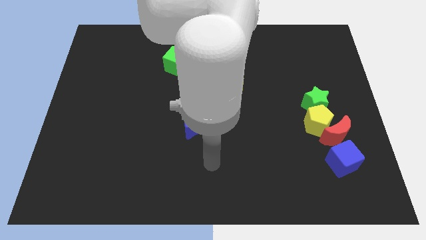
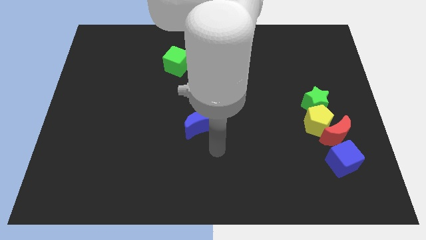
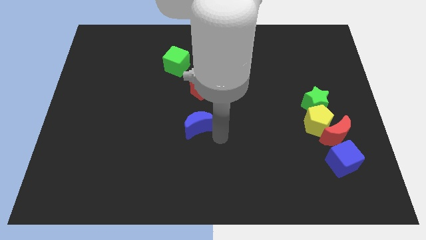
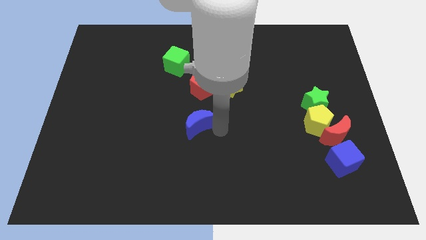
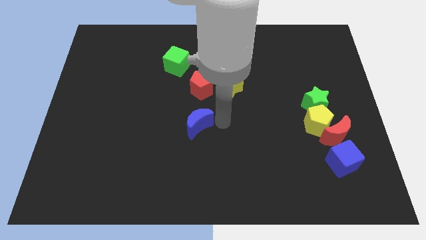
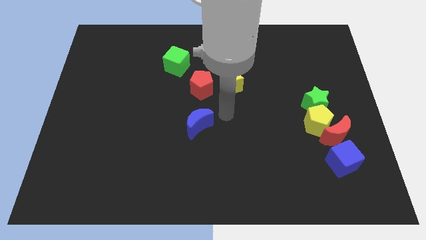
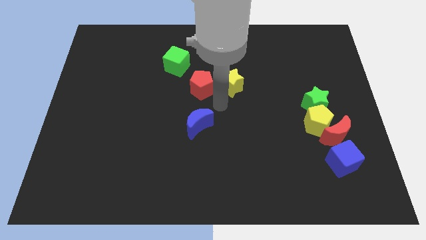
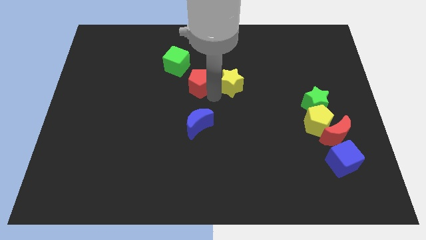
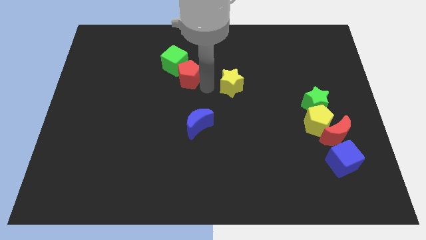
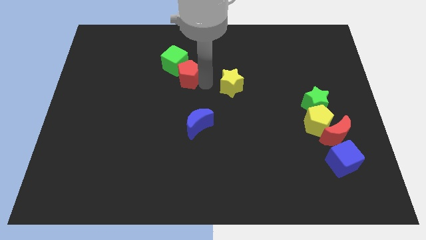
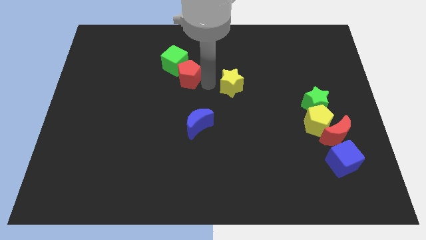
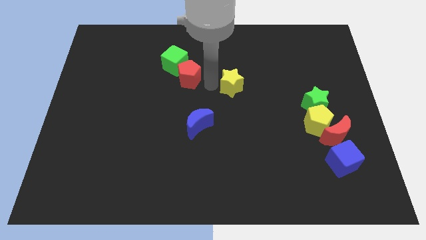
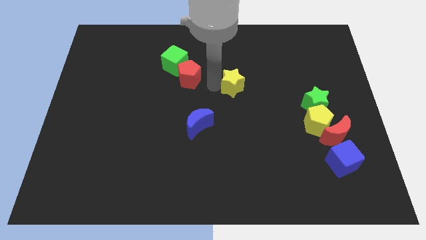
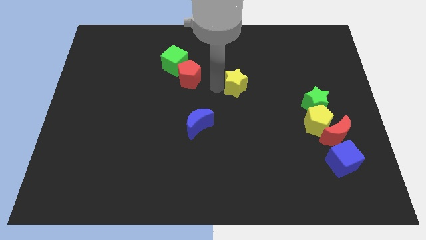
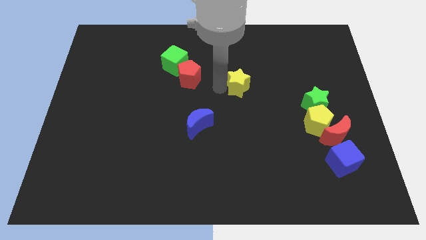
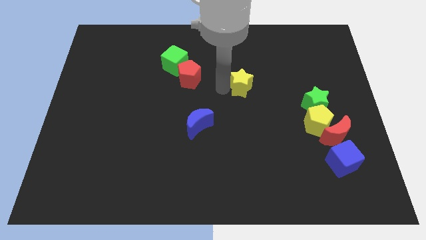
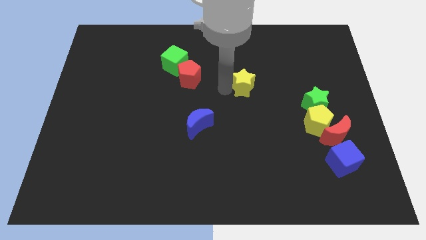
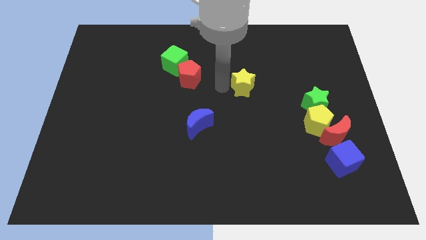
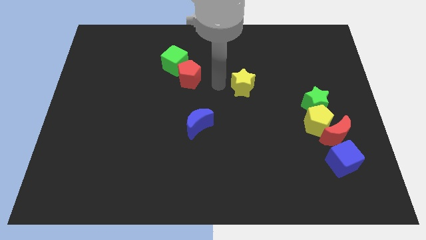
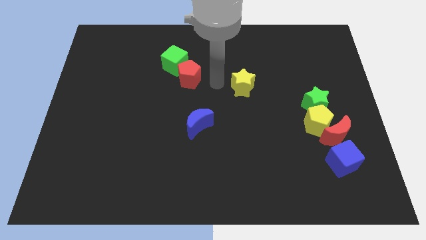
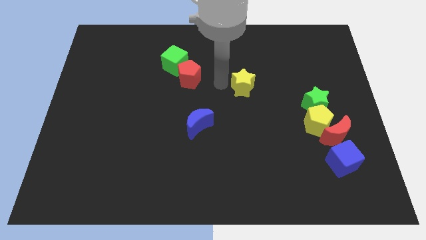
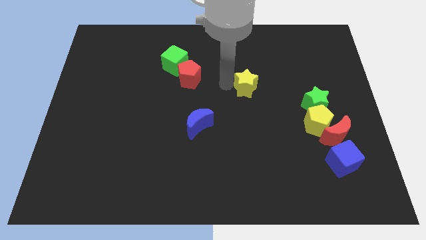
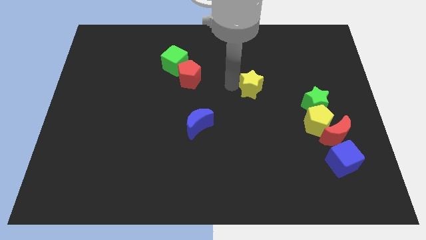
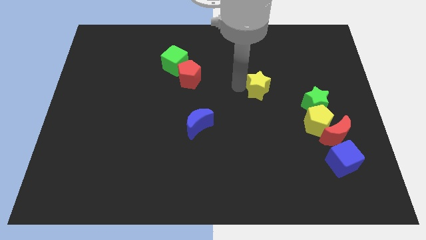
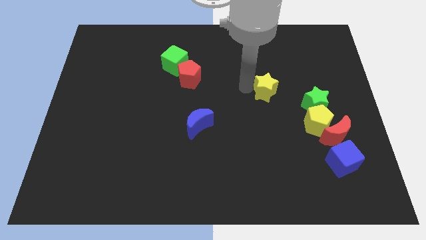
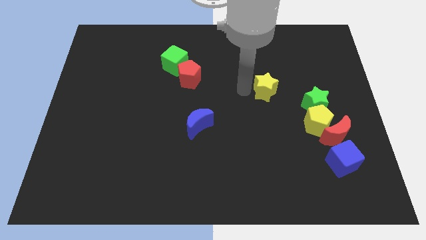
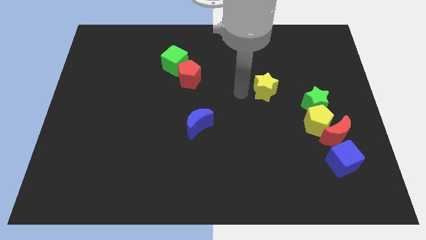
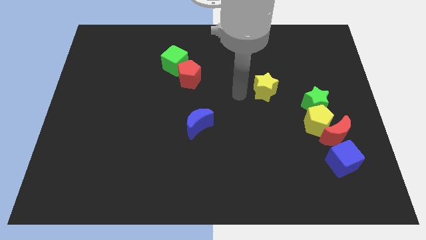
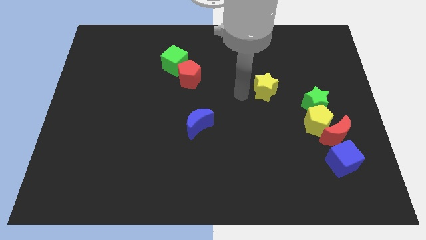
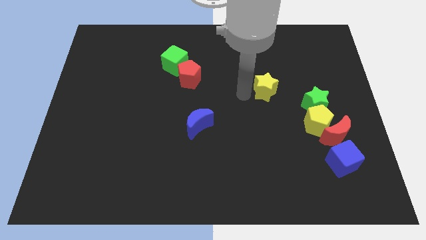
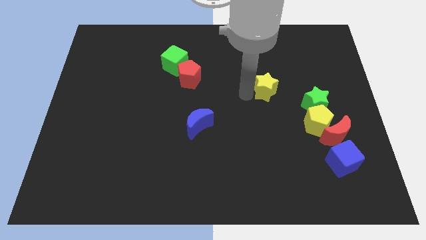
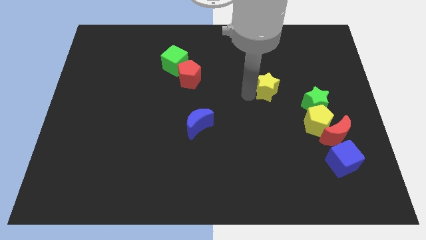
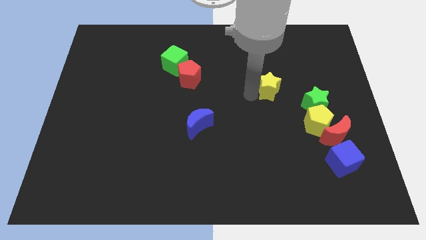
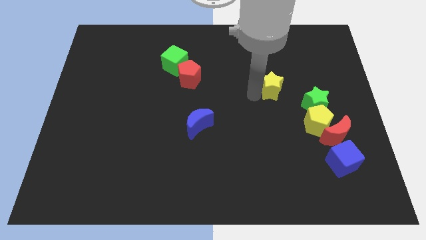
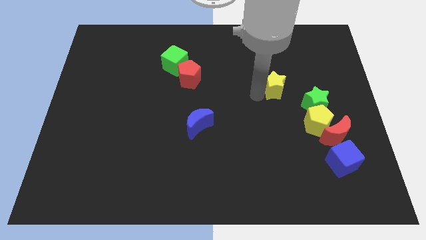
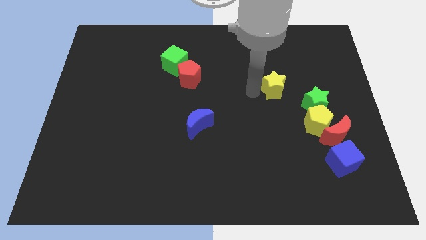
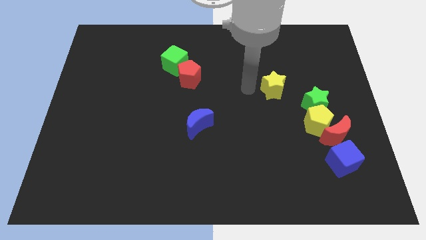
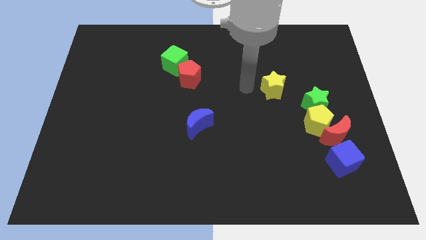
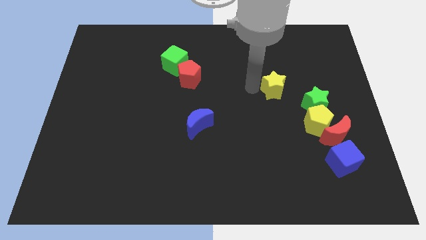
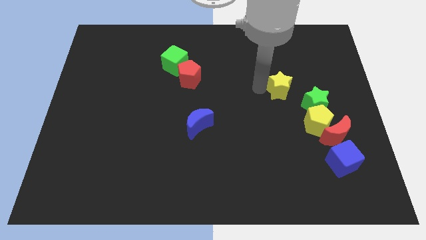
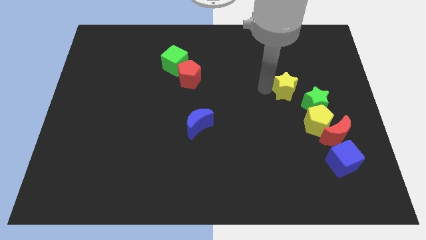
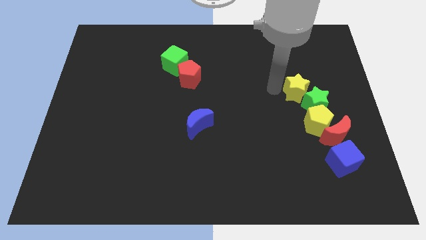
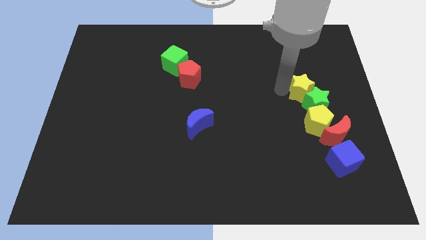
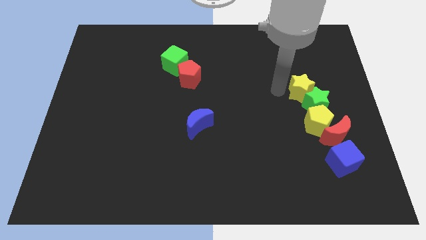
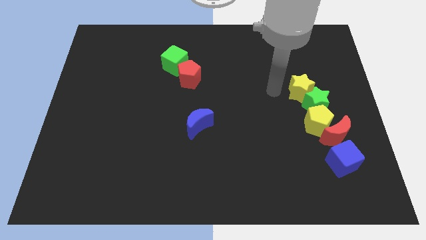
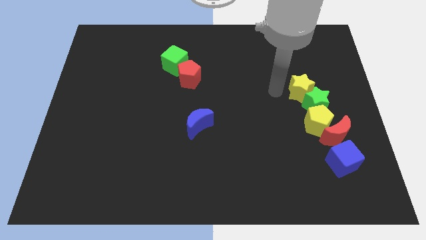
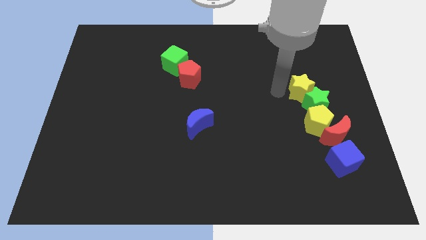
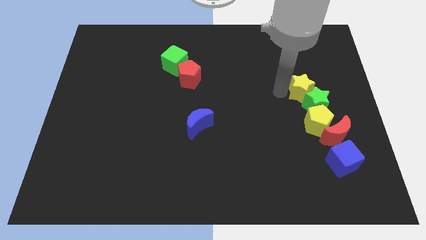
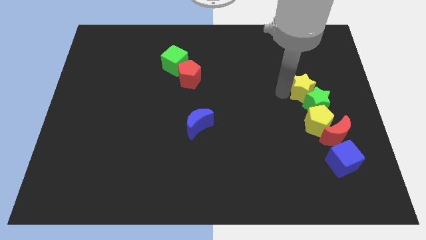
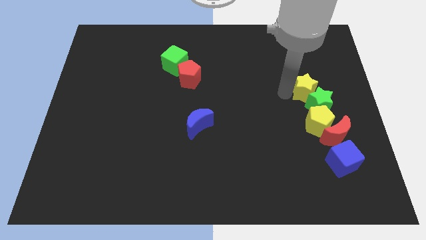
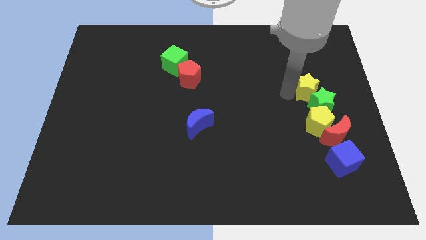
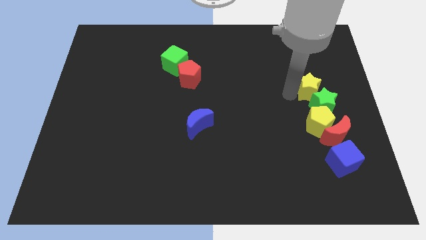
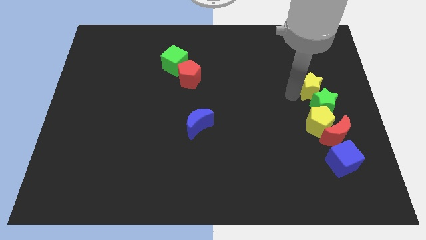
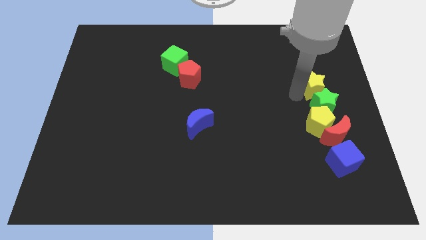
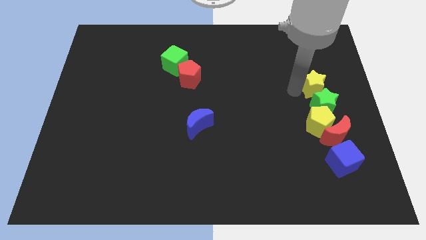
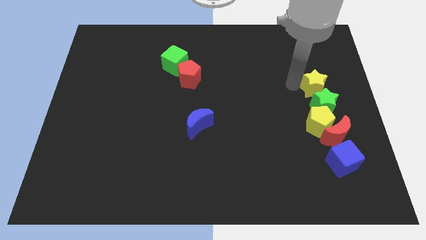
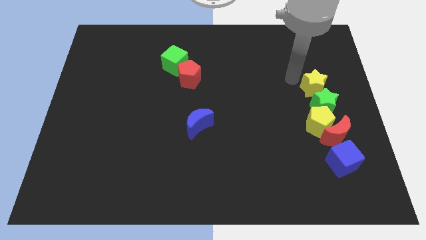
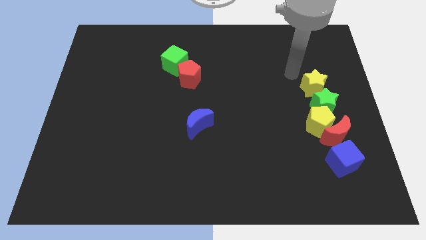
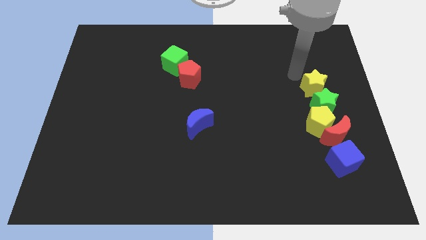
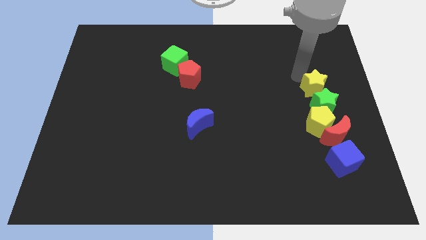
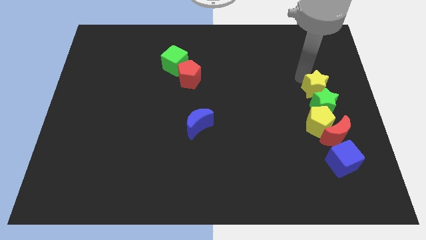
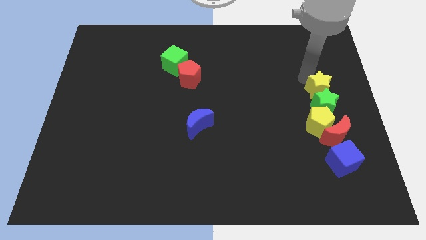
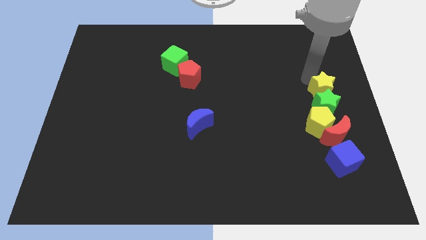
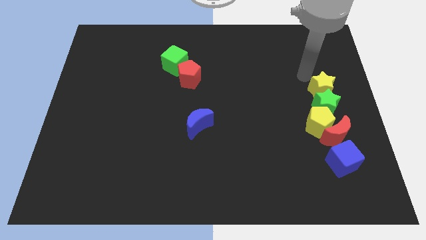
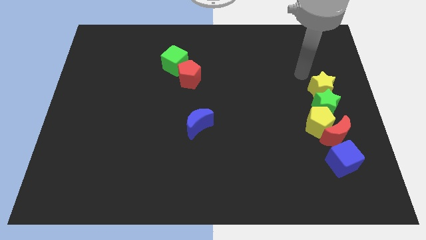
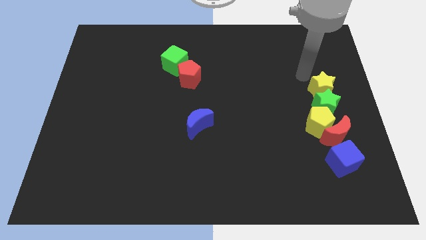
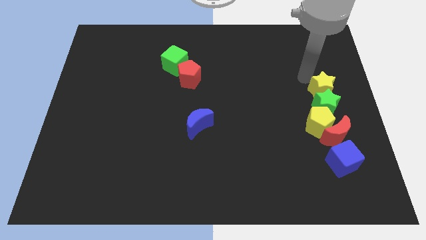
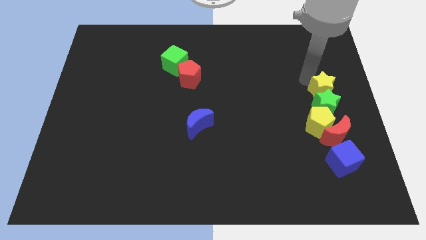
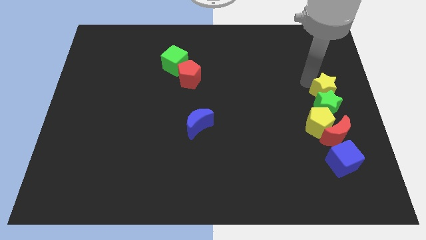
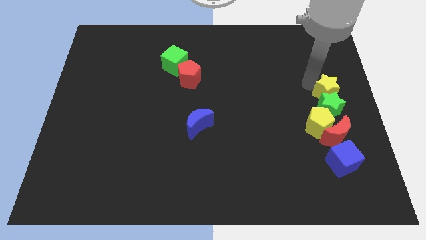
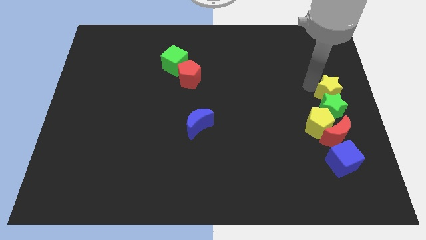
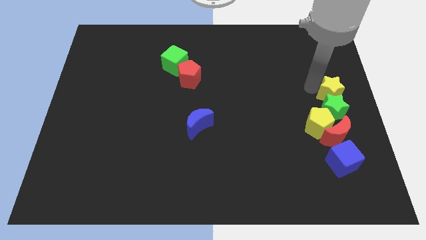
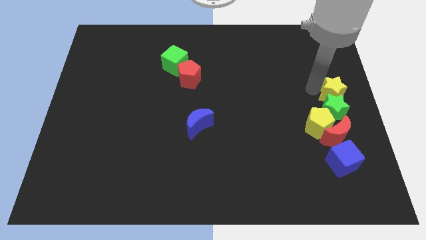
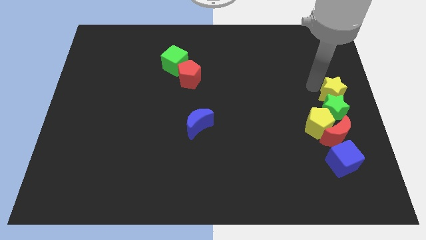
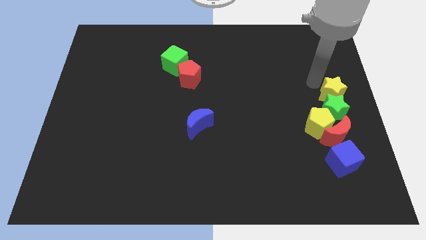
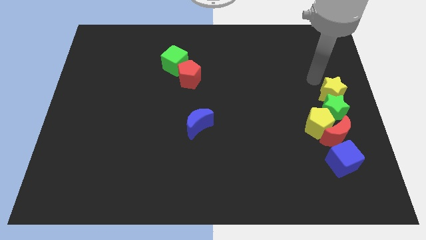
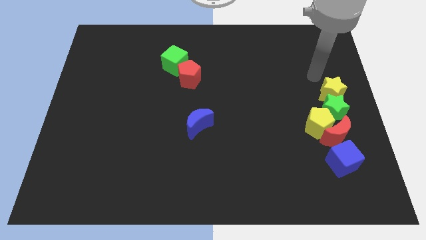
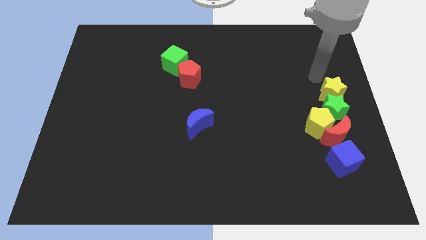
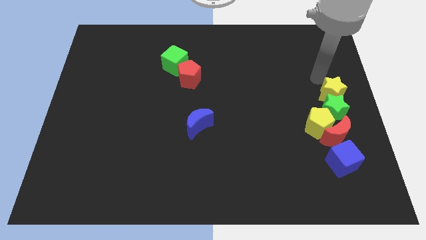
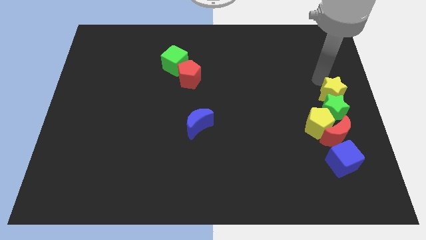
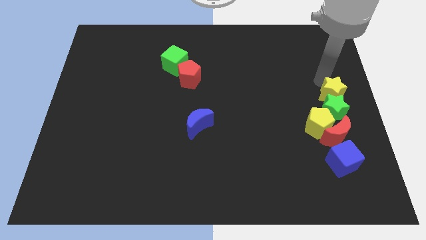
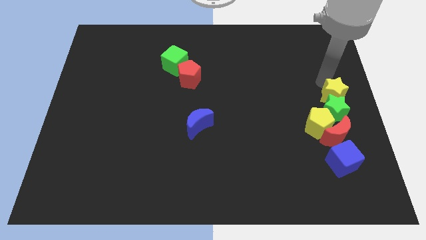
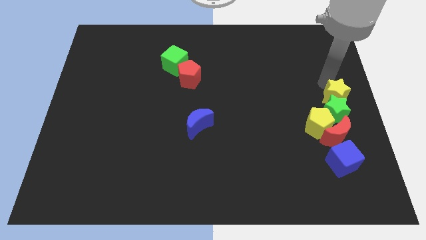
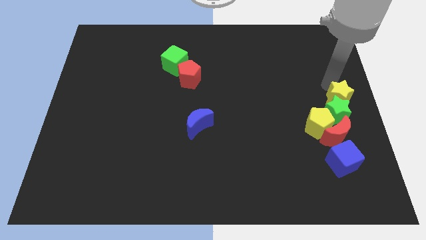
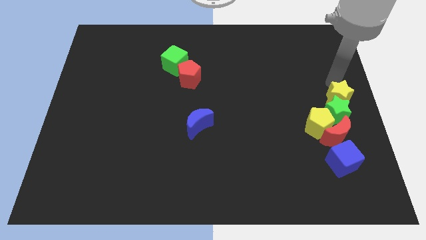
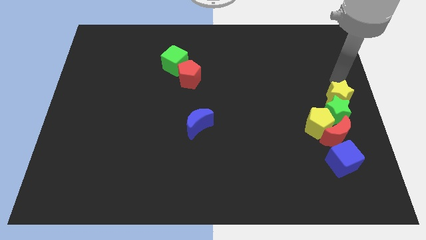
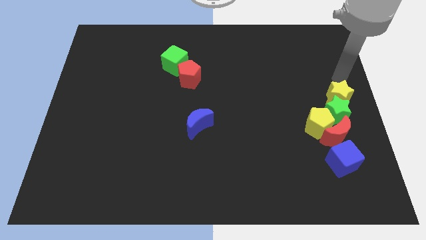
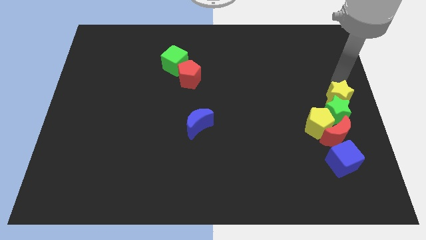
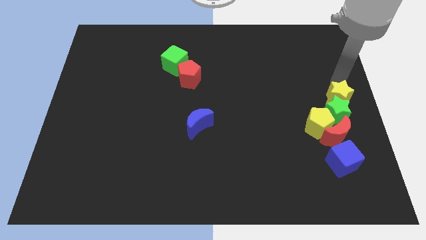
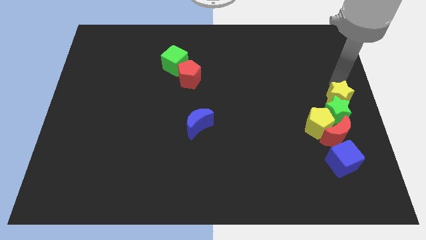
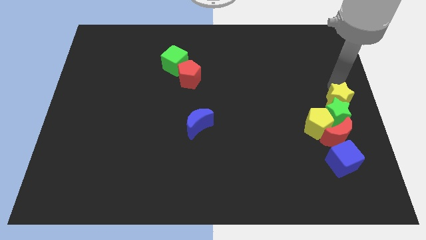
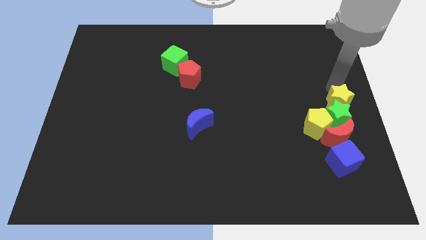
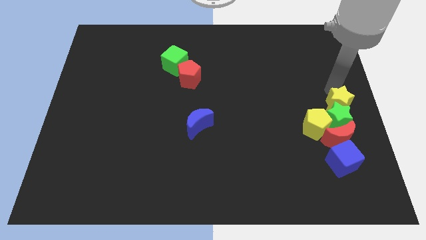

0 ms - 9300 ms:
put the yellow star to the top of the blue cube
